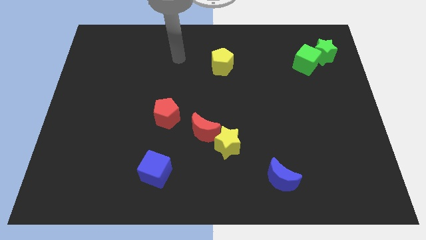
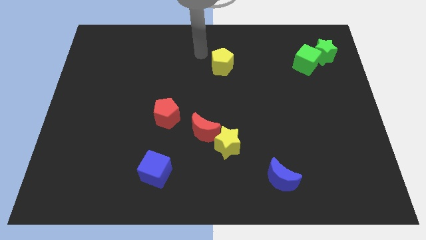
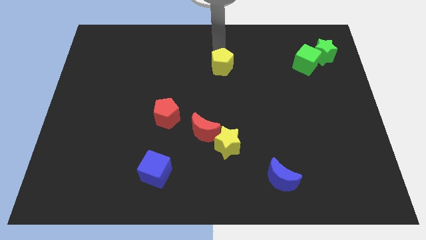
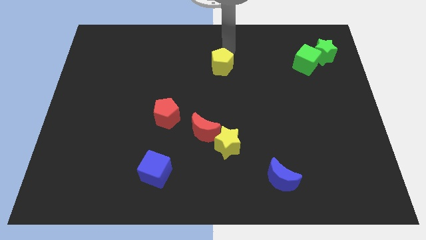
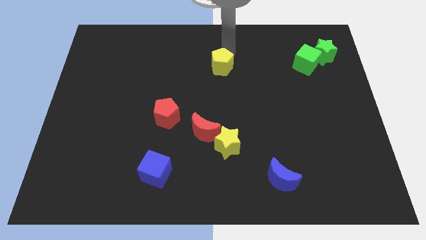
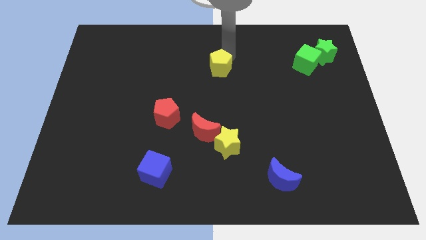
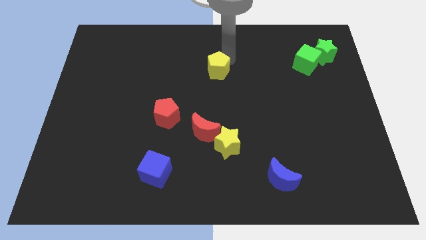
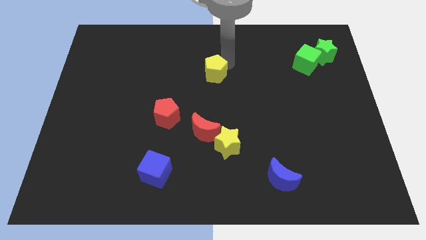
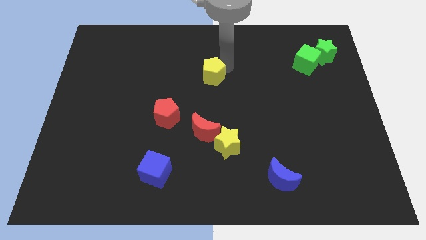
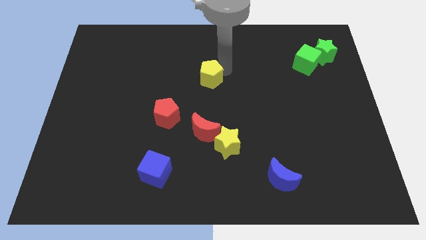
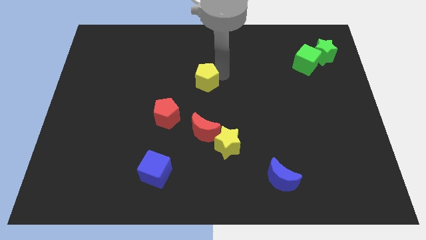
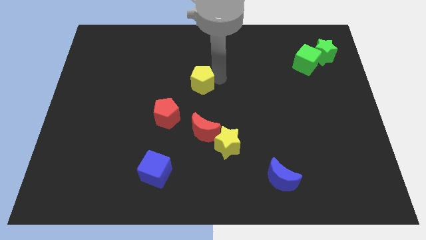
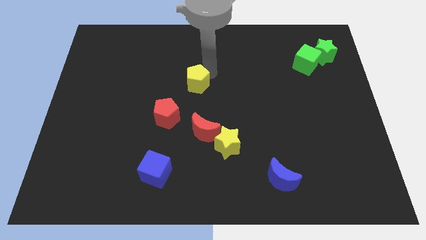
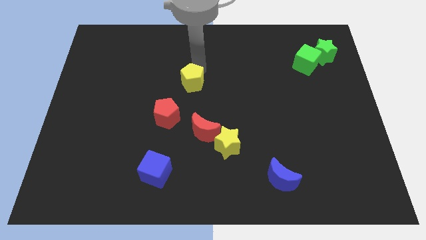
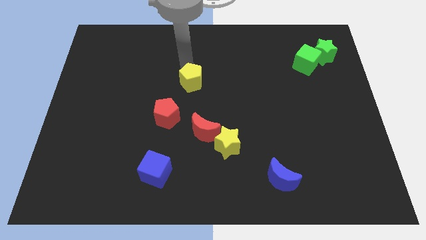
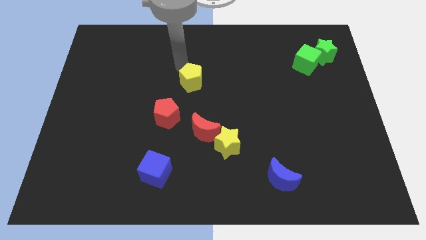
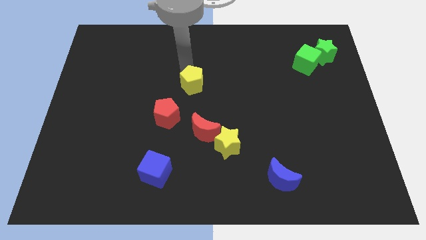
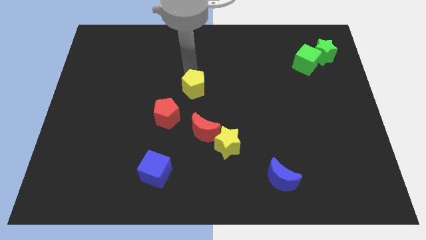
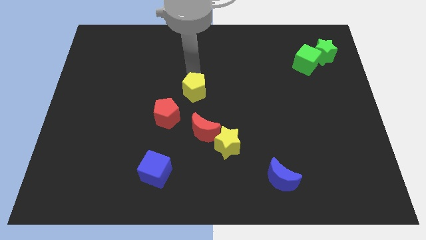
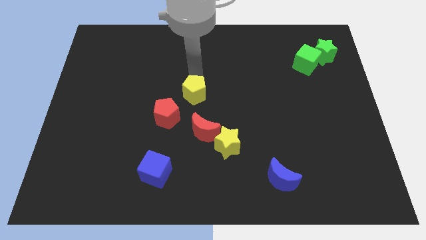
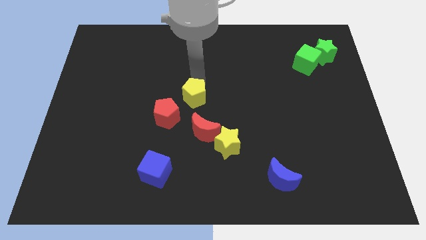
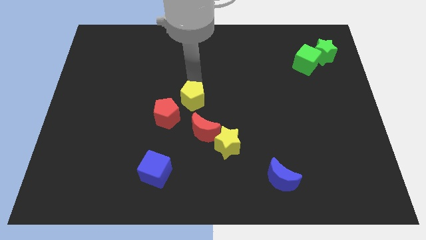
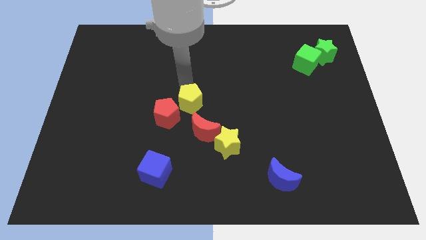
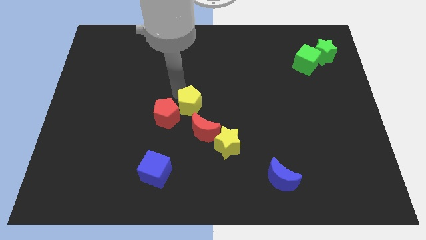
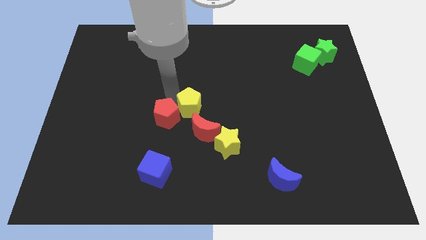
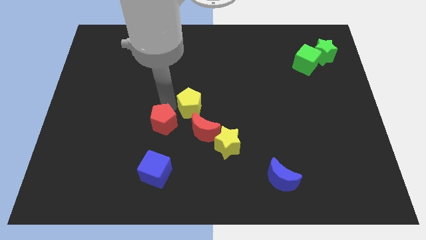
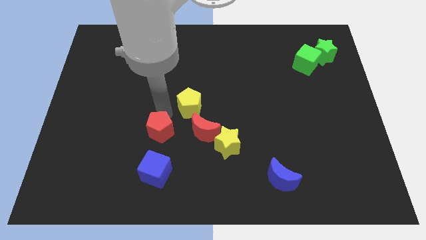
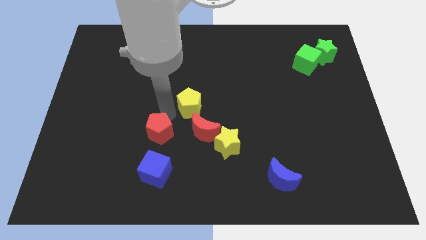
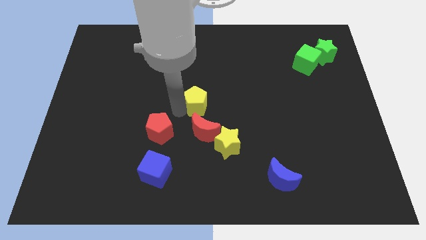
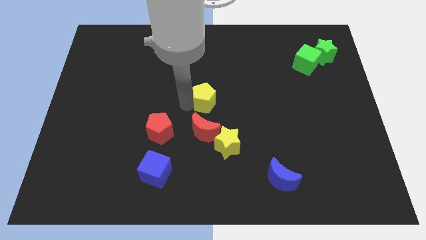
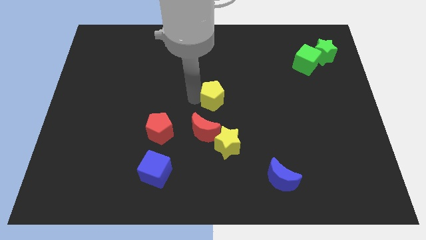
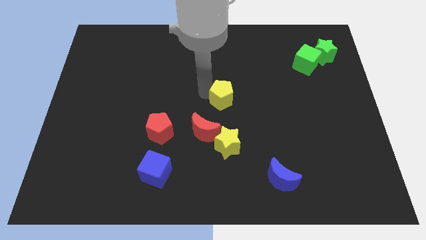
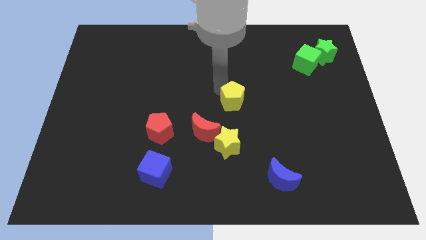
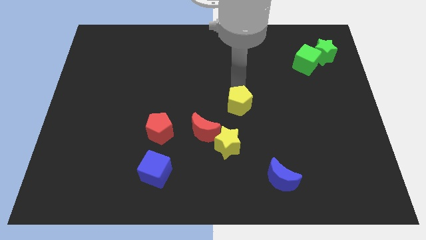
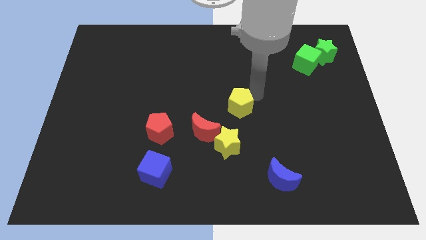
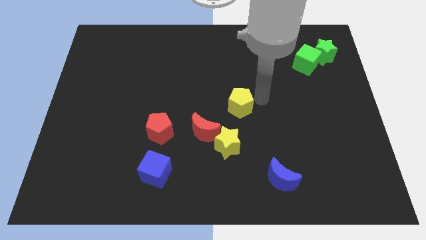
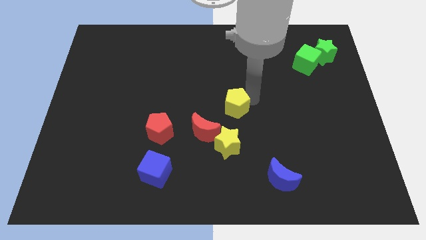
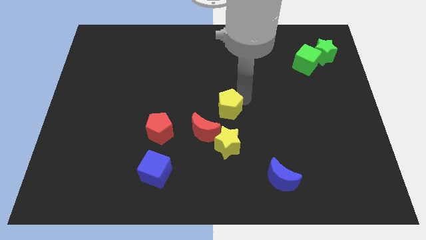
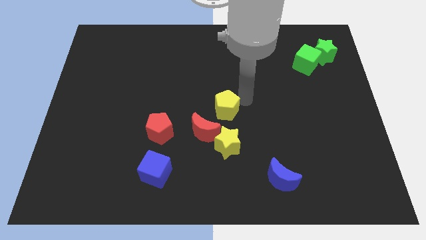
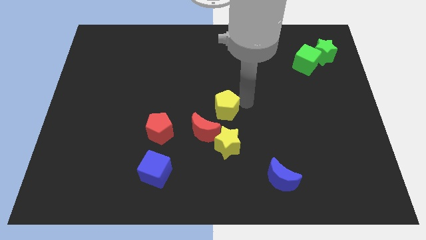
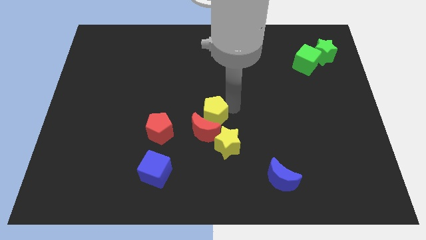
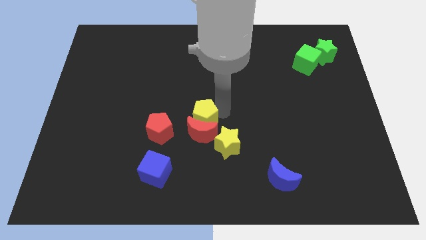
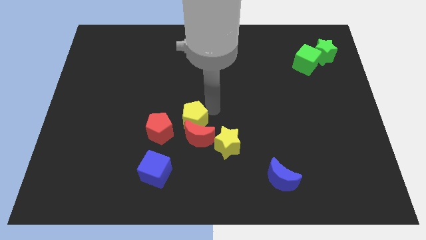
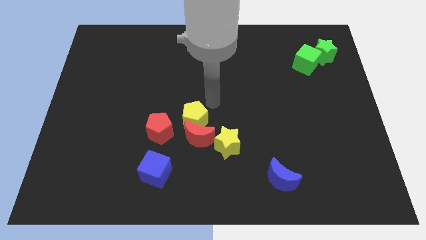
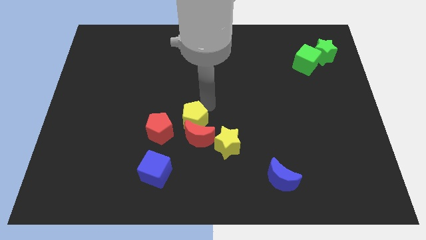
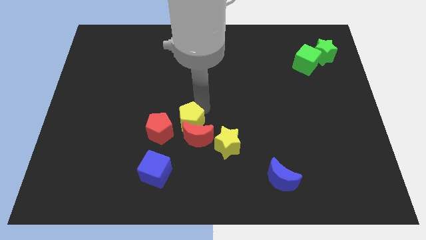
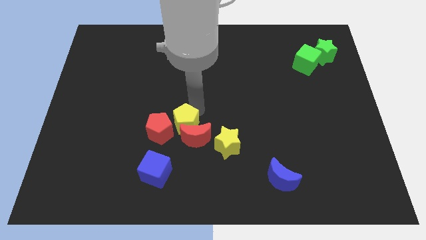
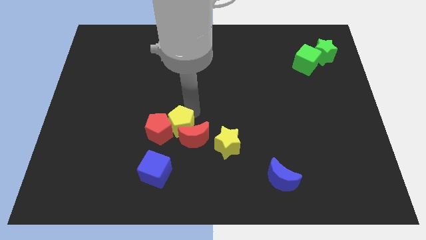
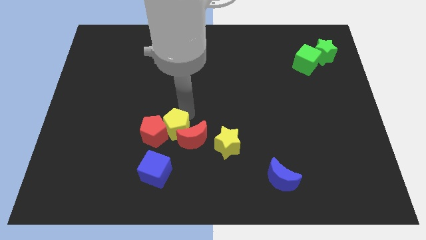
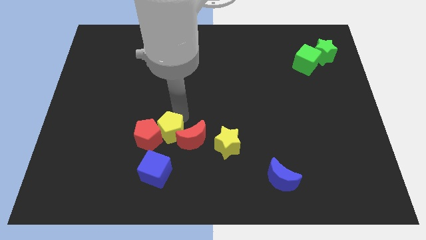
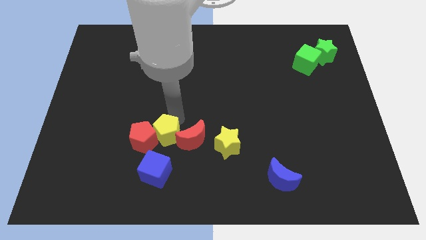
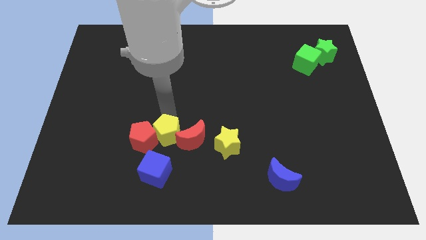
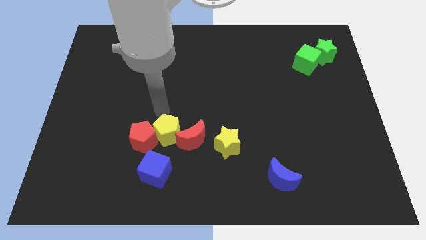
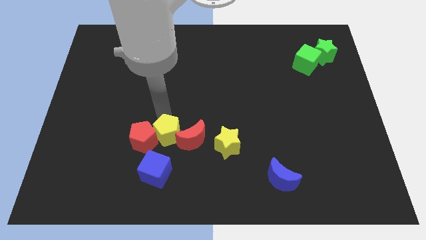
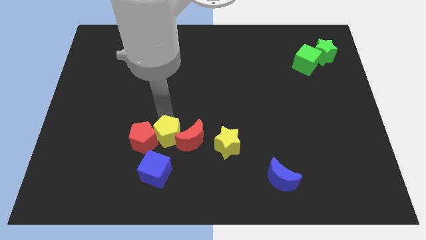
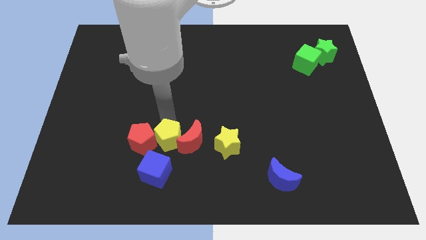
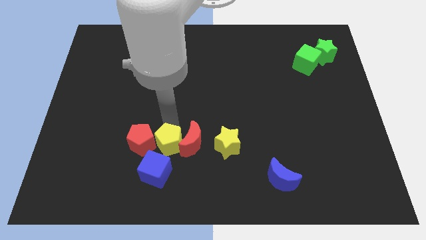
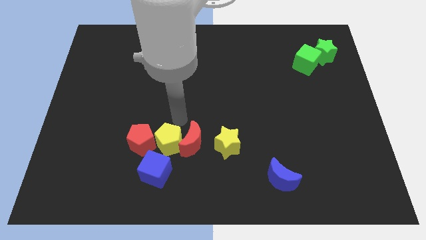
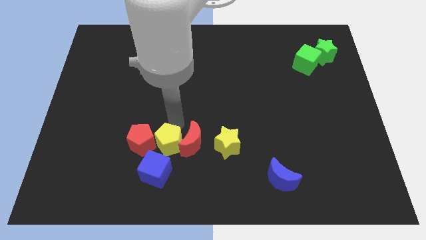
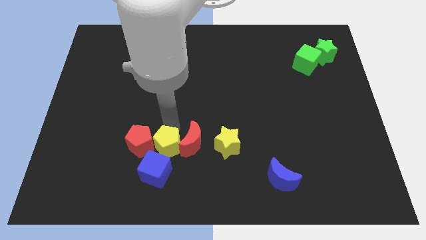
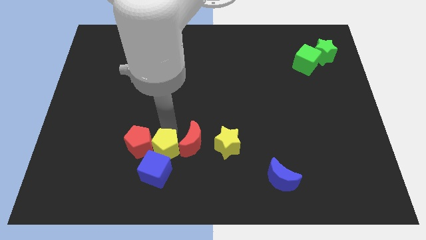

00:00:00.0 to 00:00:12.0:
put the yellow pentagon to the blue cube
